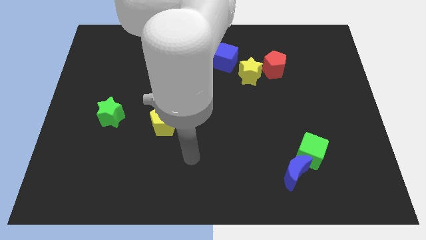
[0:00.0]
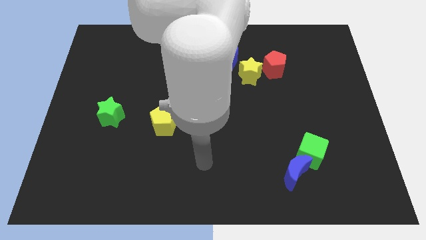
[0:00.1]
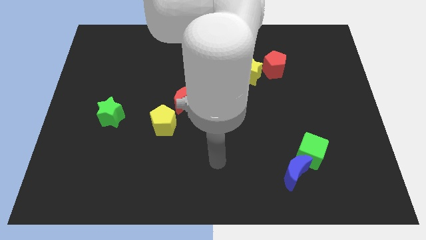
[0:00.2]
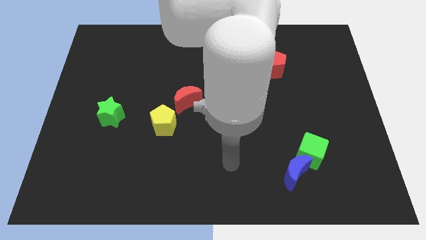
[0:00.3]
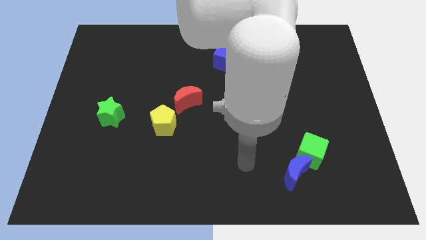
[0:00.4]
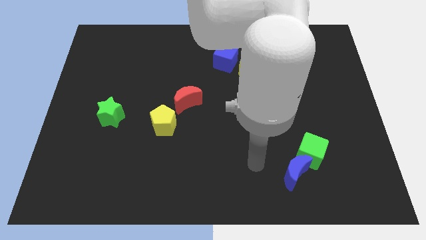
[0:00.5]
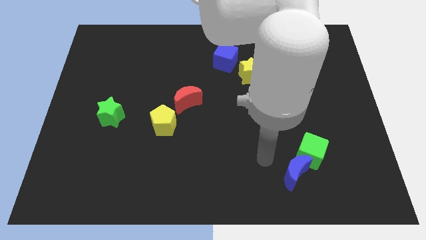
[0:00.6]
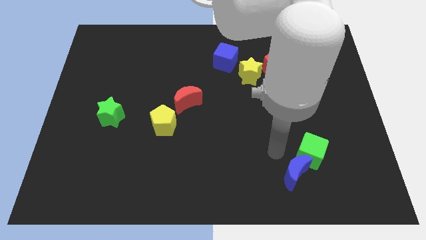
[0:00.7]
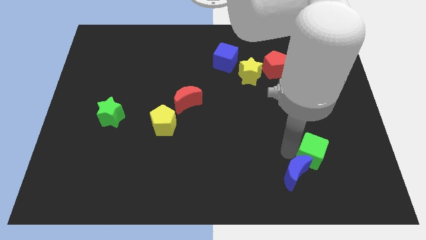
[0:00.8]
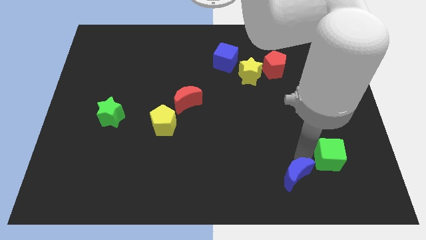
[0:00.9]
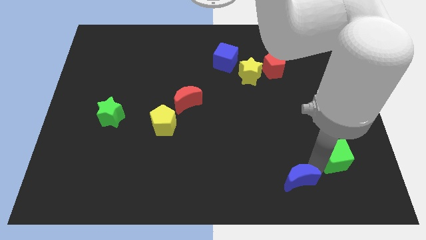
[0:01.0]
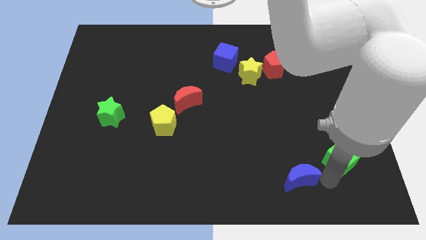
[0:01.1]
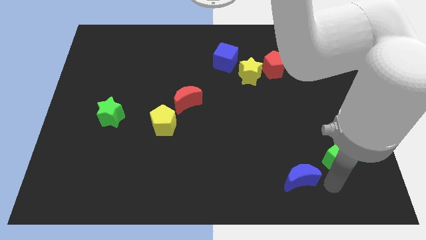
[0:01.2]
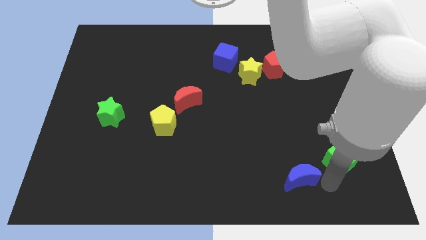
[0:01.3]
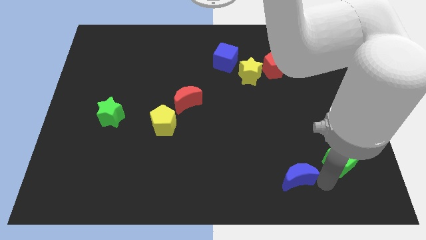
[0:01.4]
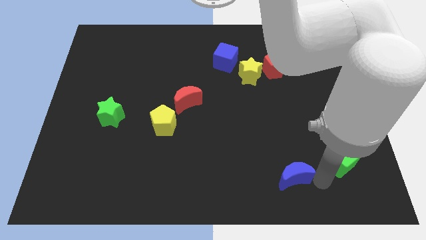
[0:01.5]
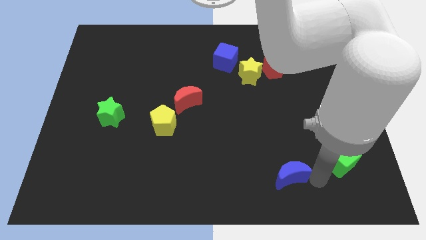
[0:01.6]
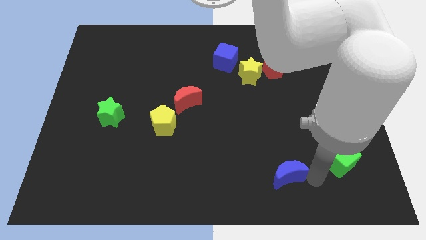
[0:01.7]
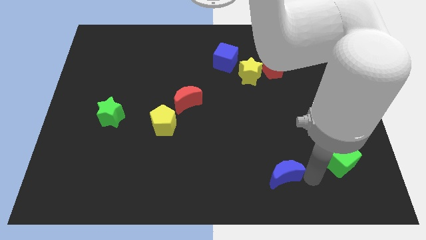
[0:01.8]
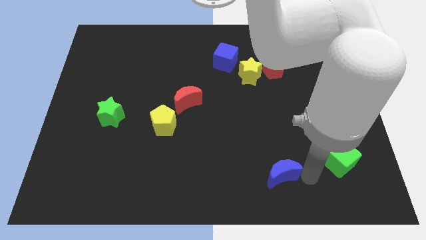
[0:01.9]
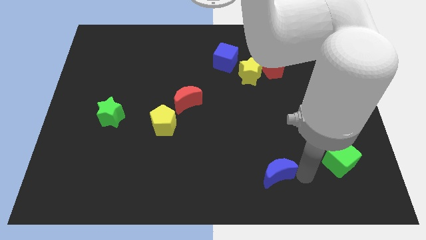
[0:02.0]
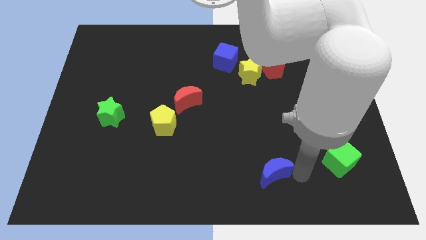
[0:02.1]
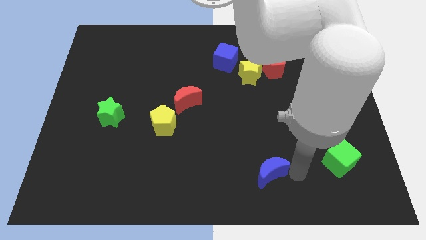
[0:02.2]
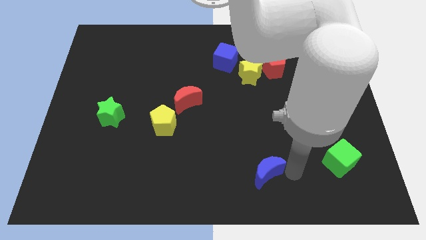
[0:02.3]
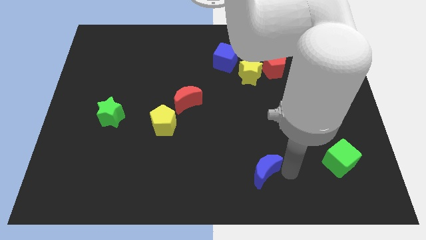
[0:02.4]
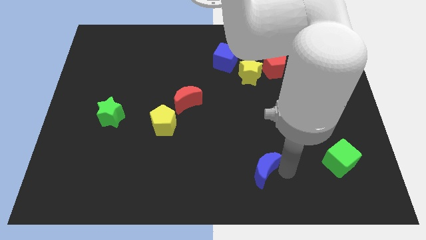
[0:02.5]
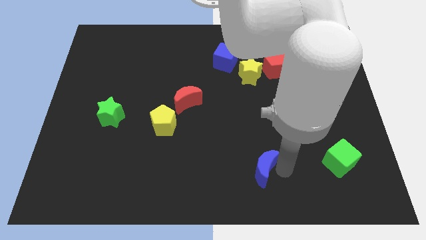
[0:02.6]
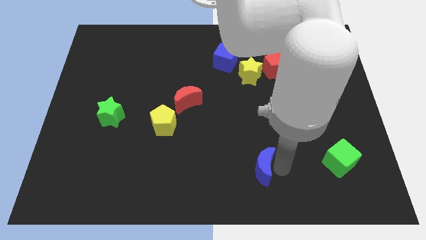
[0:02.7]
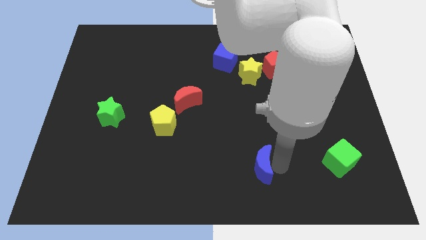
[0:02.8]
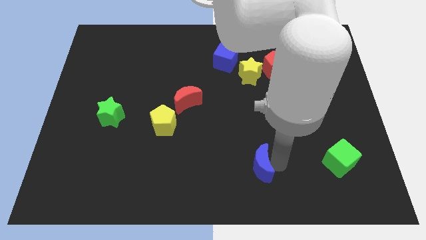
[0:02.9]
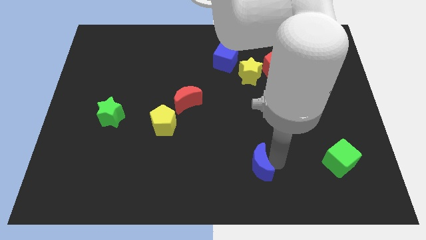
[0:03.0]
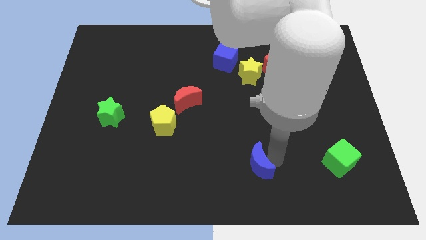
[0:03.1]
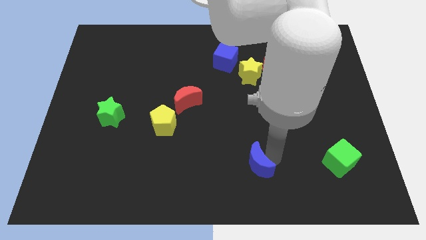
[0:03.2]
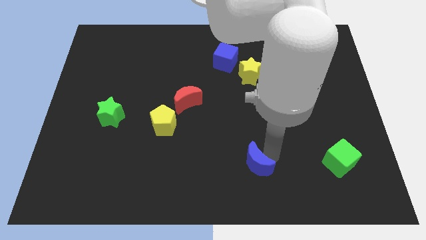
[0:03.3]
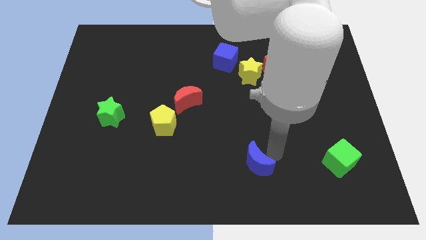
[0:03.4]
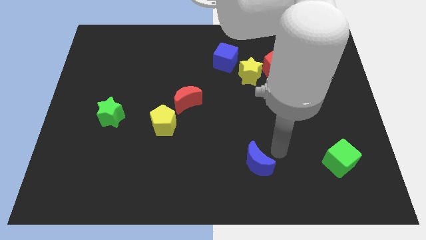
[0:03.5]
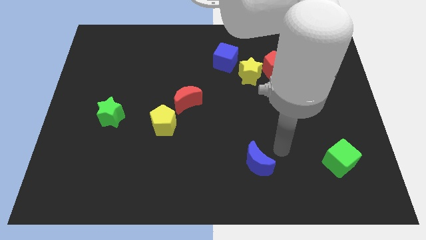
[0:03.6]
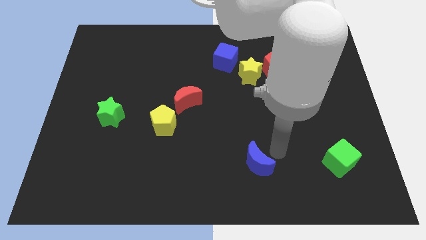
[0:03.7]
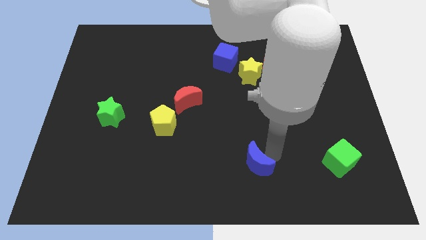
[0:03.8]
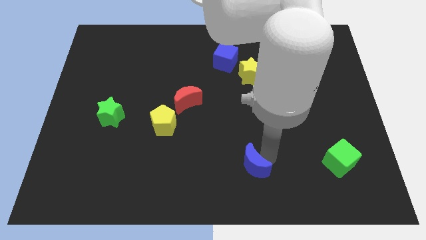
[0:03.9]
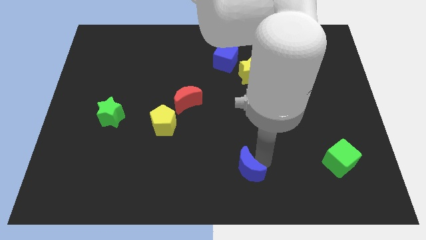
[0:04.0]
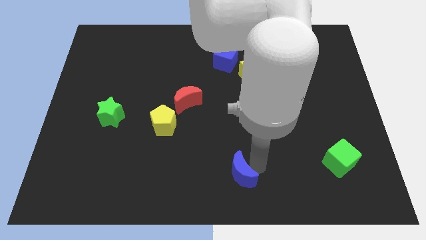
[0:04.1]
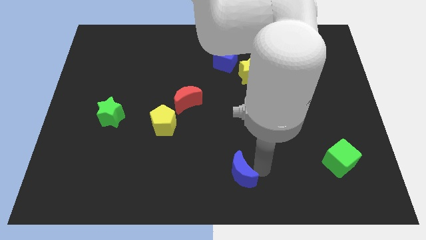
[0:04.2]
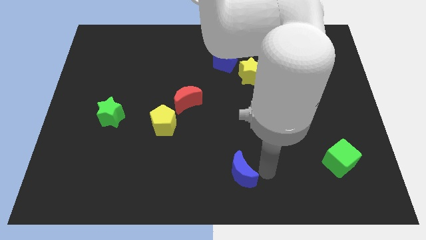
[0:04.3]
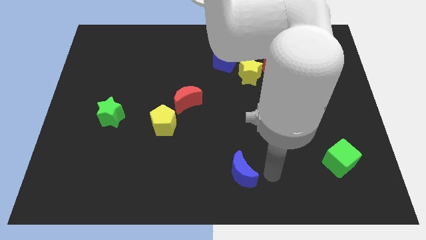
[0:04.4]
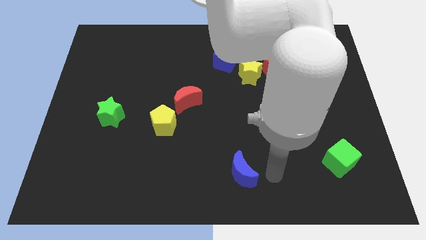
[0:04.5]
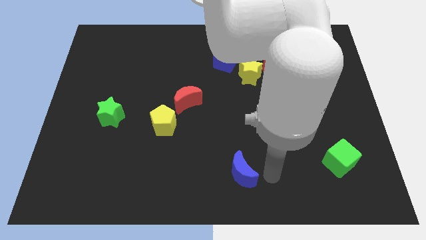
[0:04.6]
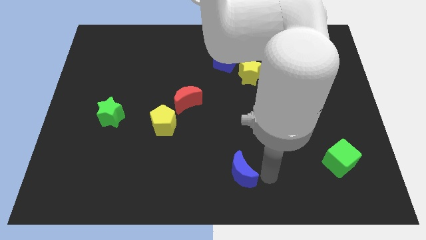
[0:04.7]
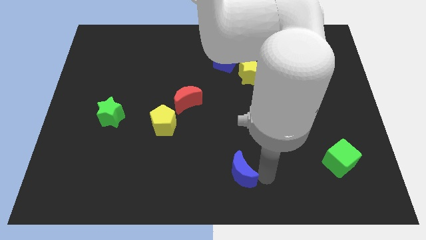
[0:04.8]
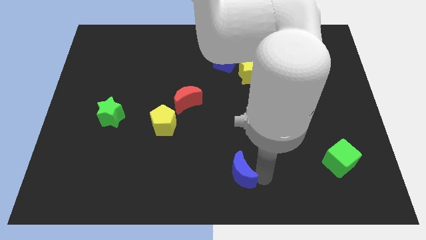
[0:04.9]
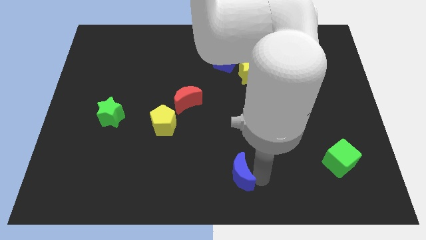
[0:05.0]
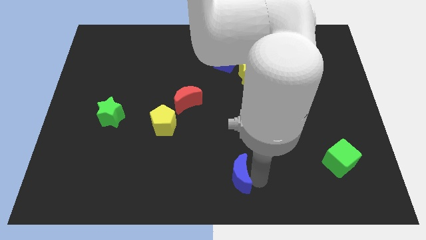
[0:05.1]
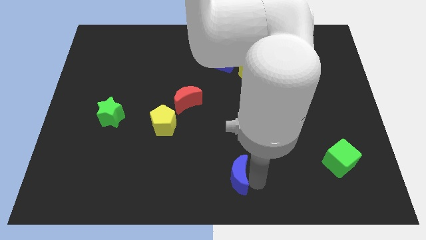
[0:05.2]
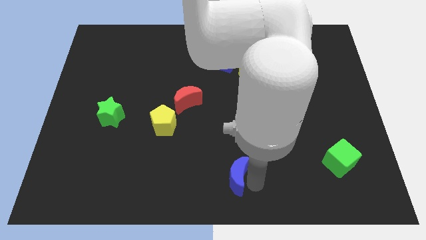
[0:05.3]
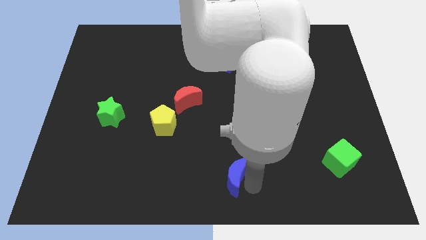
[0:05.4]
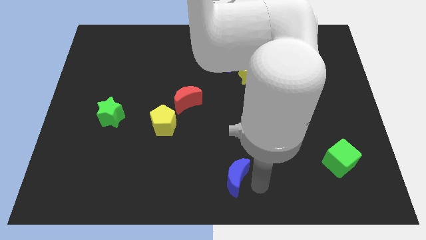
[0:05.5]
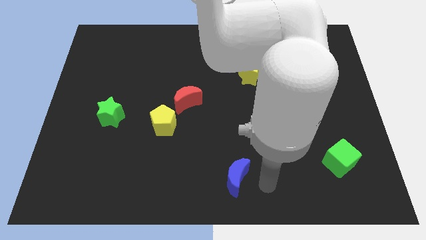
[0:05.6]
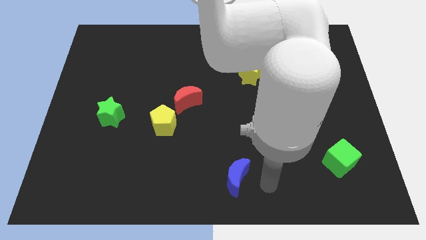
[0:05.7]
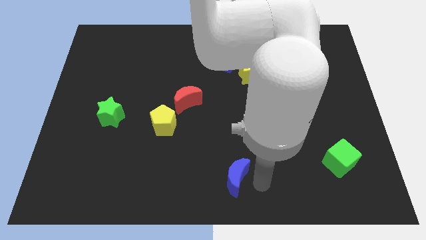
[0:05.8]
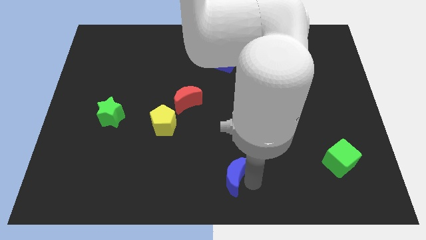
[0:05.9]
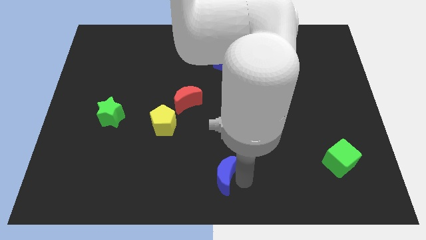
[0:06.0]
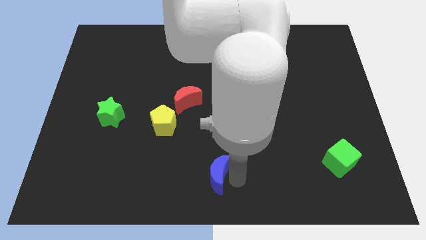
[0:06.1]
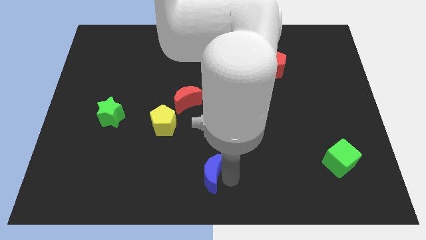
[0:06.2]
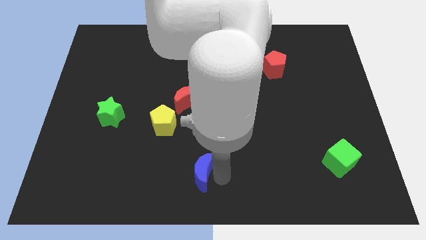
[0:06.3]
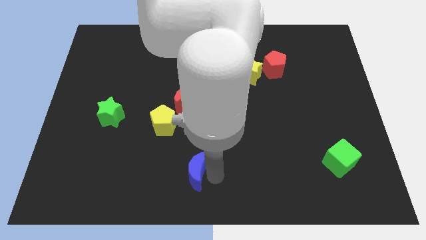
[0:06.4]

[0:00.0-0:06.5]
push the blue moon to the left

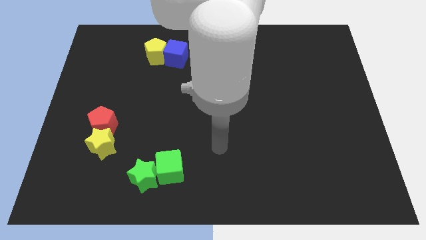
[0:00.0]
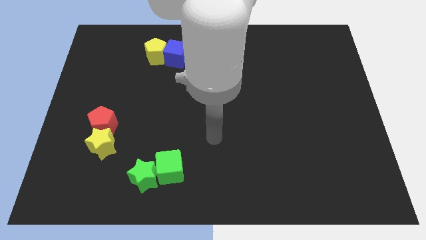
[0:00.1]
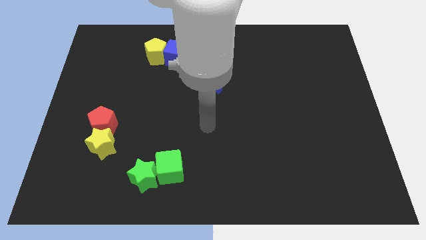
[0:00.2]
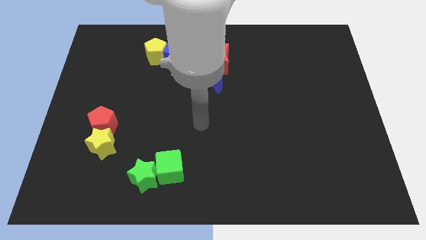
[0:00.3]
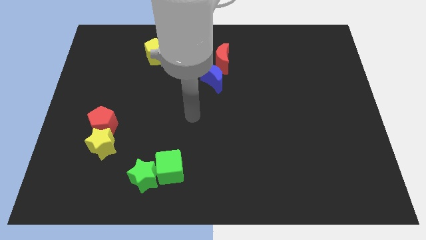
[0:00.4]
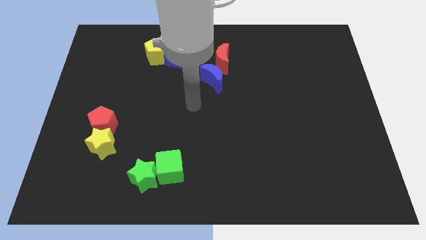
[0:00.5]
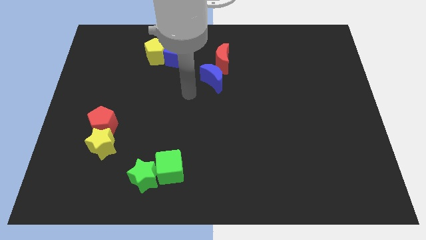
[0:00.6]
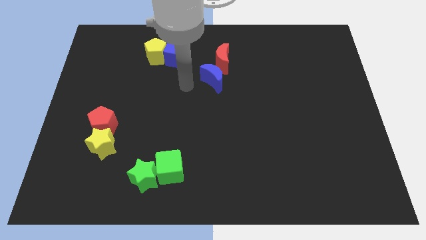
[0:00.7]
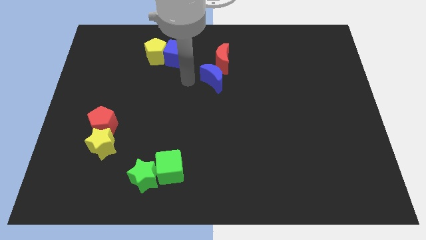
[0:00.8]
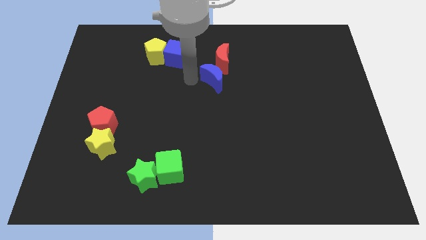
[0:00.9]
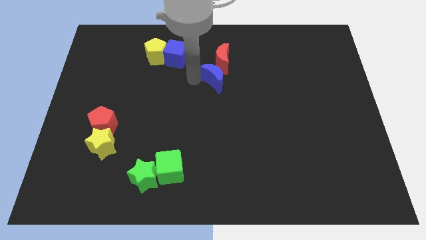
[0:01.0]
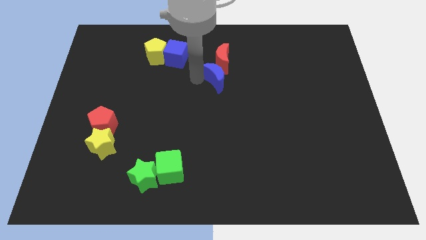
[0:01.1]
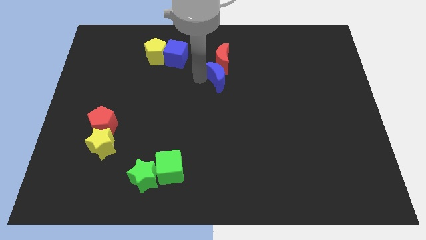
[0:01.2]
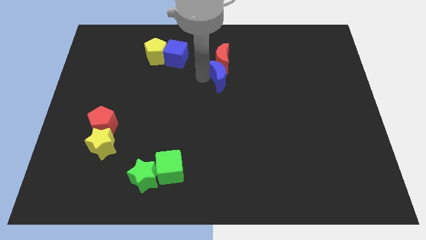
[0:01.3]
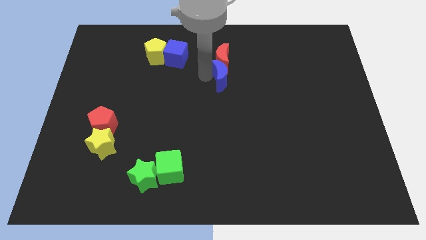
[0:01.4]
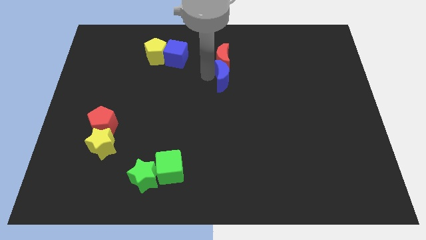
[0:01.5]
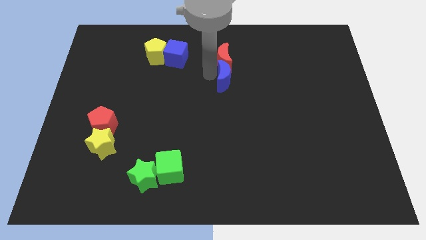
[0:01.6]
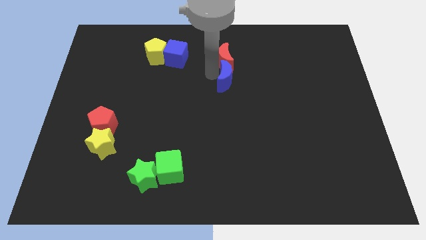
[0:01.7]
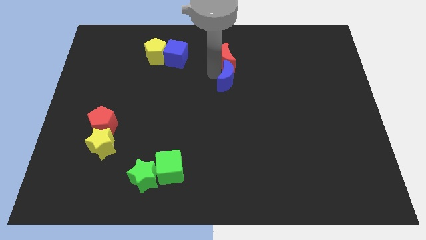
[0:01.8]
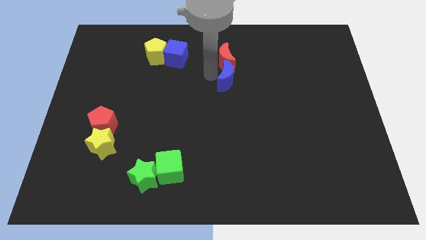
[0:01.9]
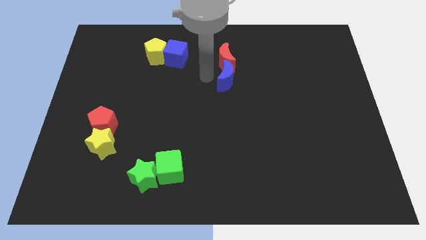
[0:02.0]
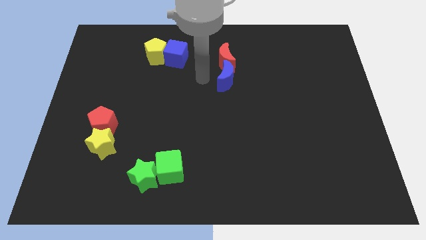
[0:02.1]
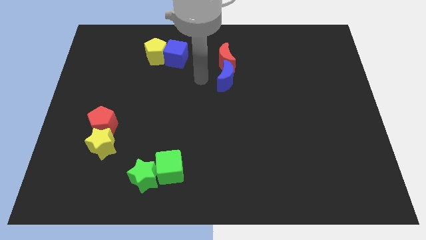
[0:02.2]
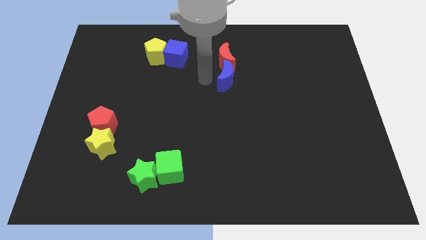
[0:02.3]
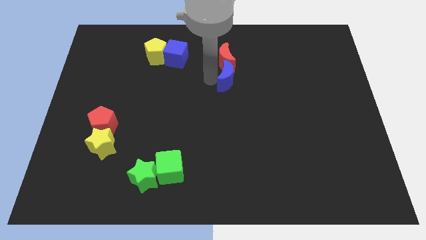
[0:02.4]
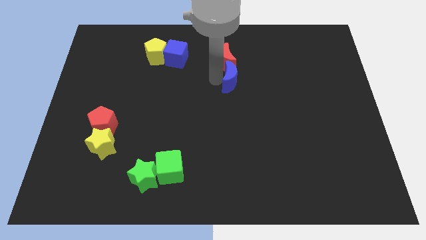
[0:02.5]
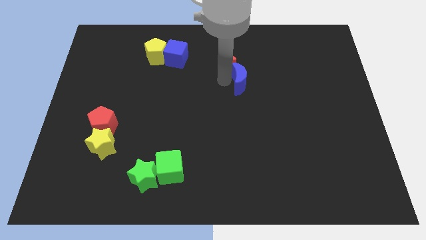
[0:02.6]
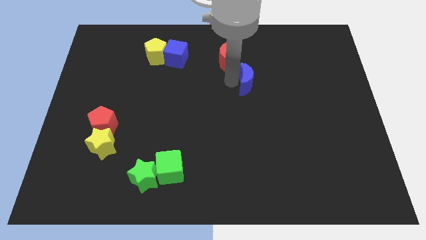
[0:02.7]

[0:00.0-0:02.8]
slightly move the blue moon to the right
